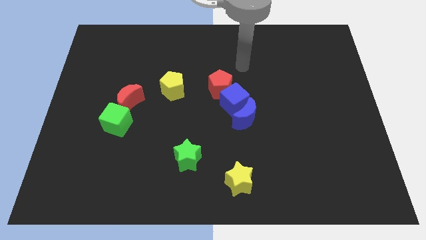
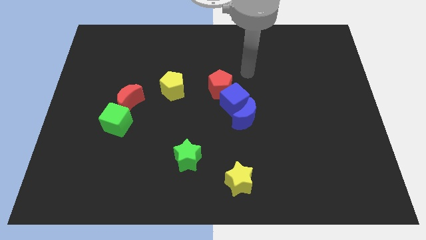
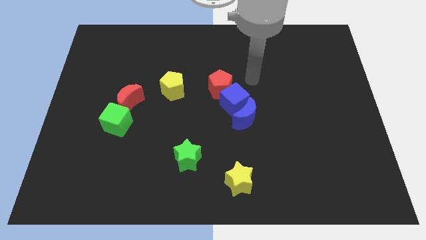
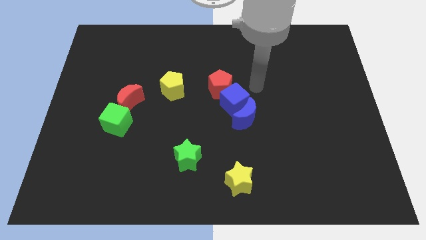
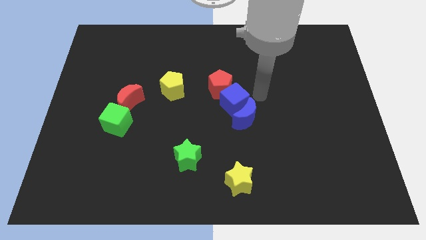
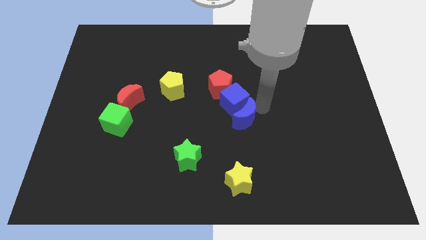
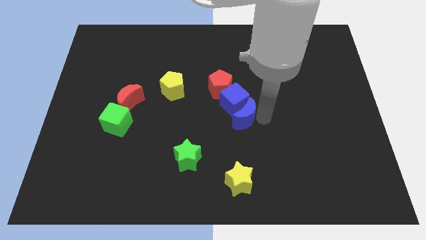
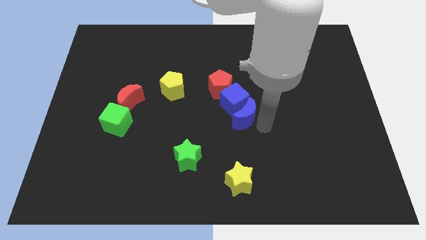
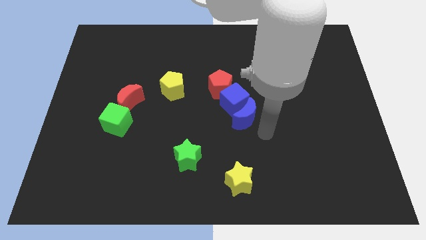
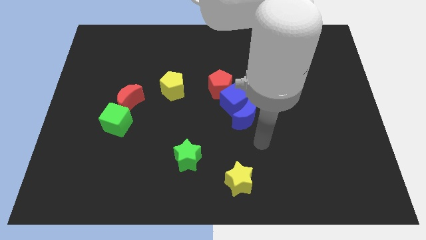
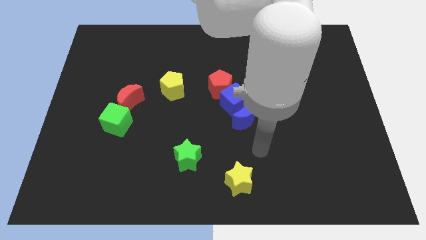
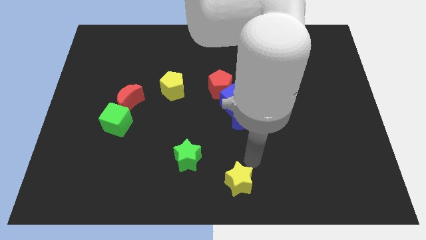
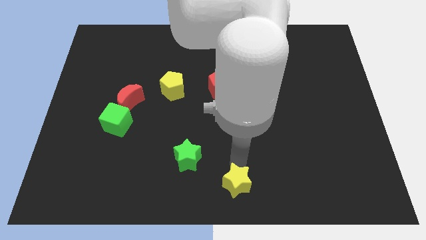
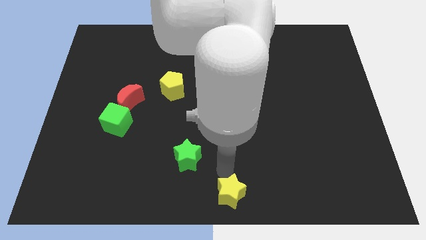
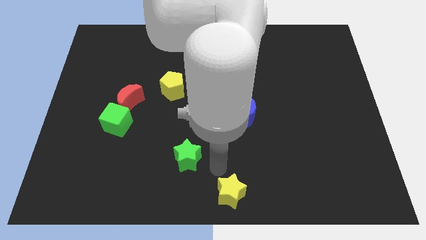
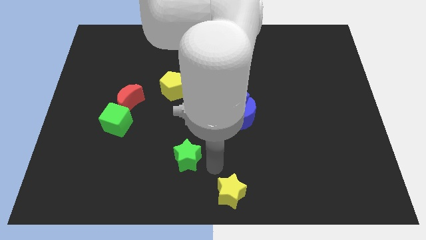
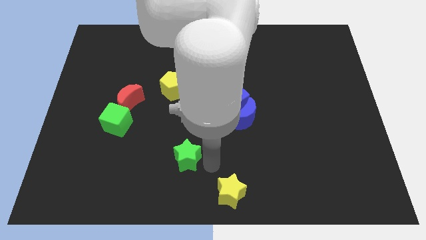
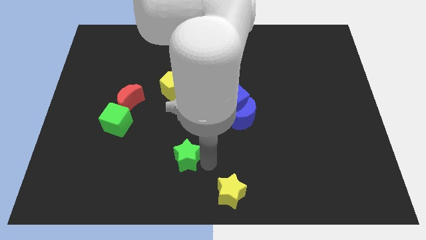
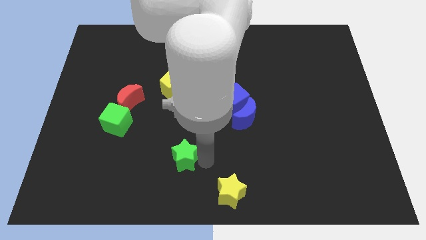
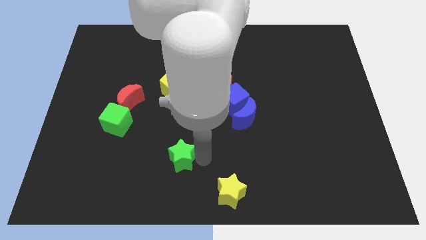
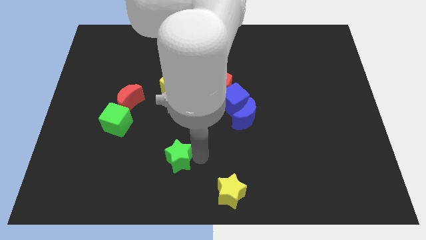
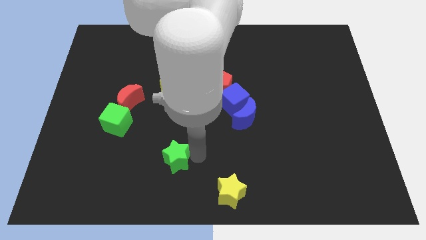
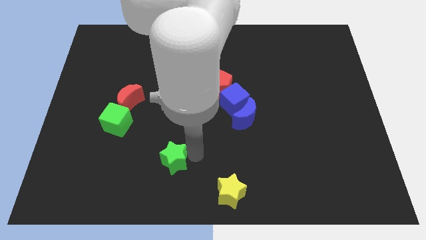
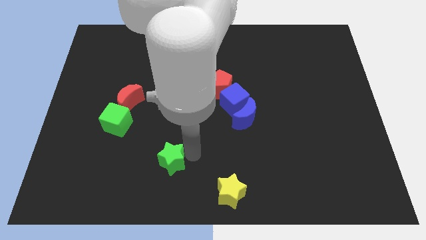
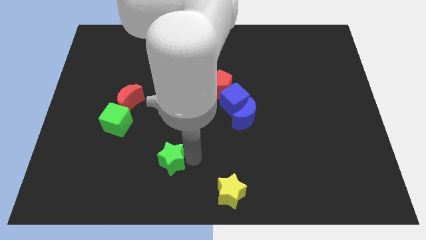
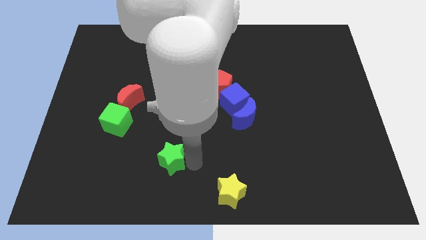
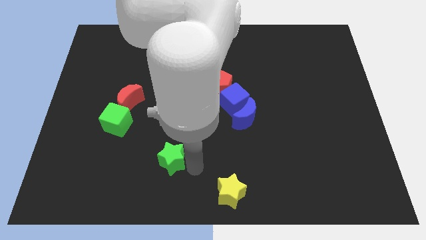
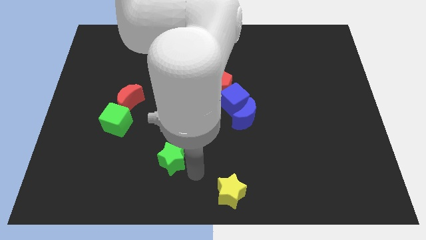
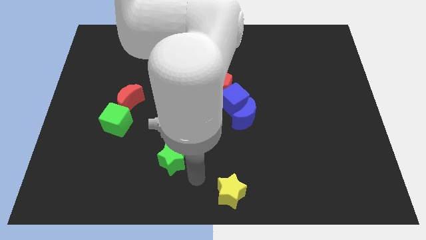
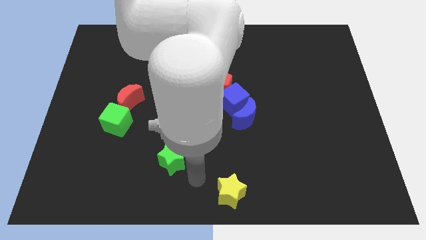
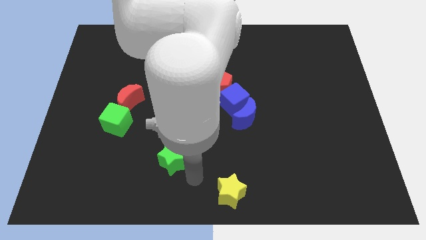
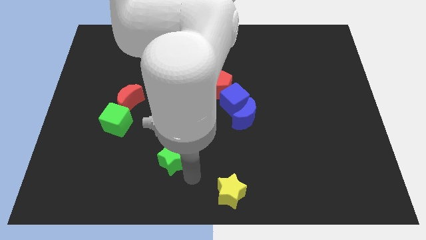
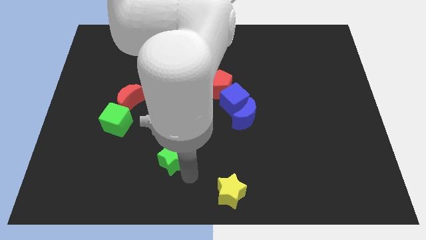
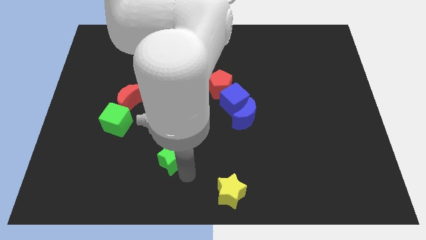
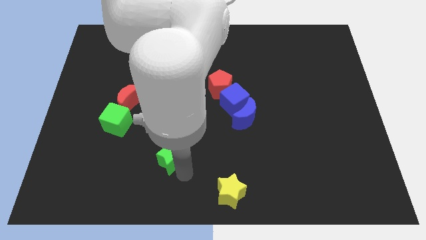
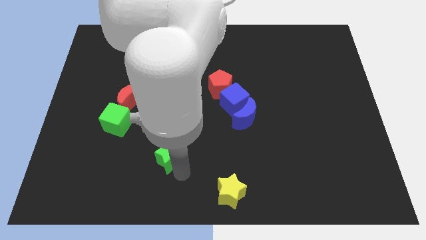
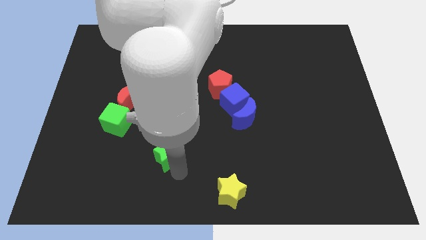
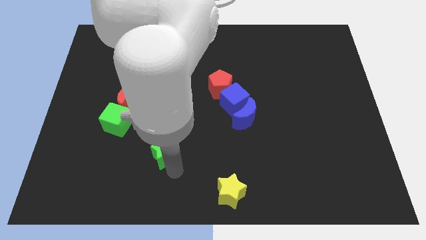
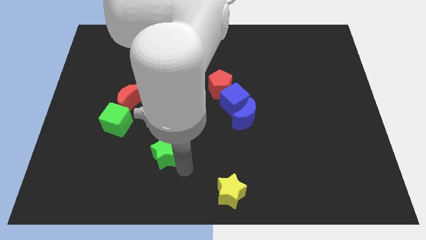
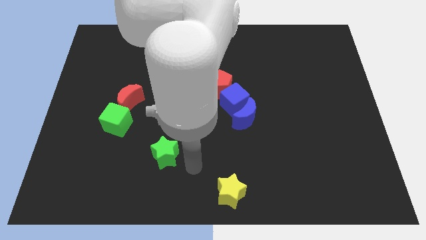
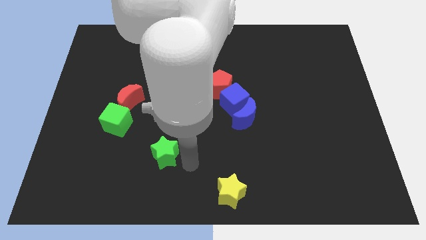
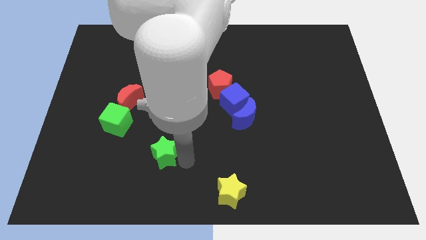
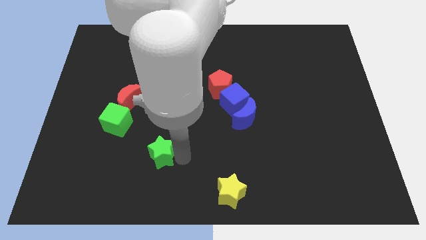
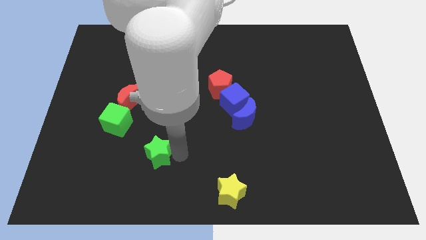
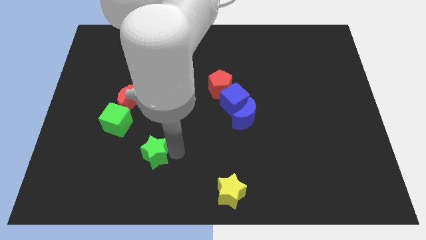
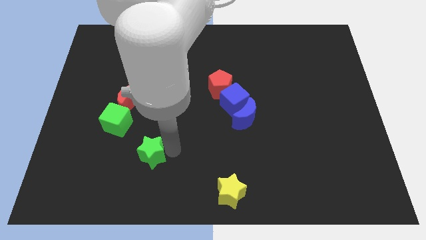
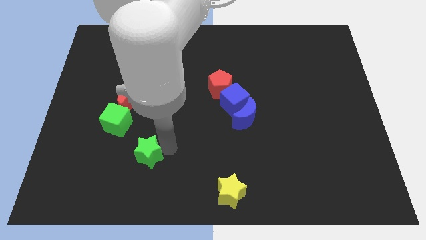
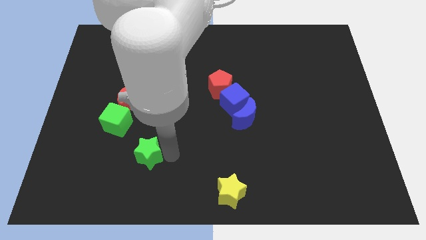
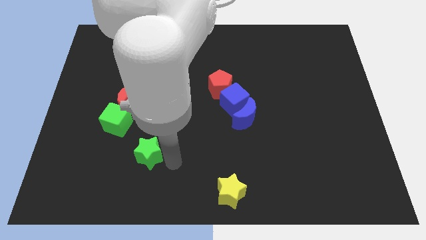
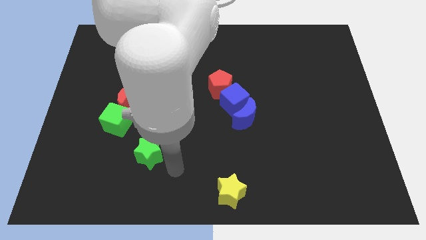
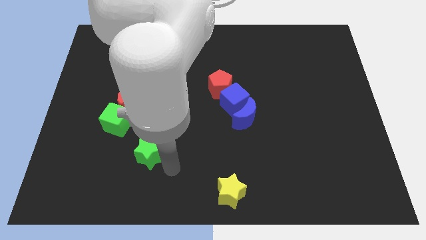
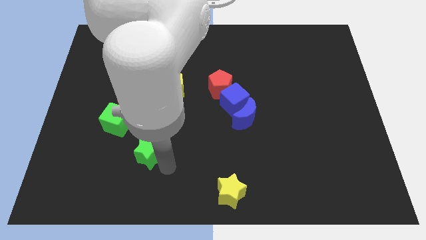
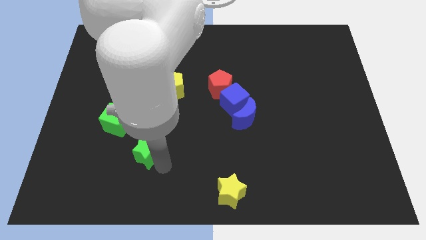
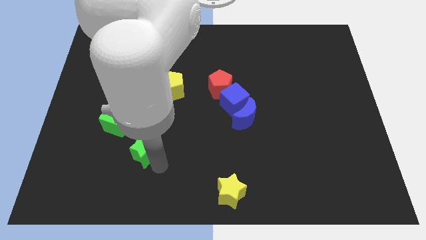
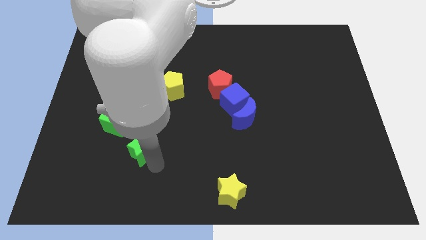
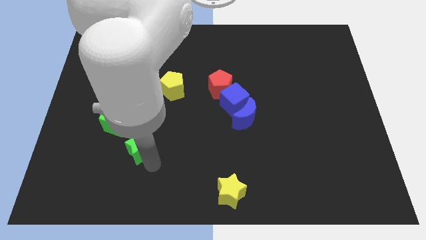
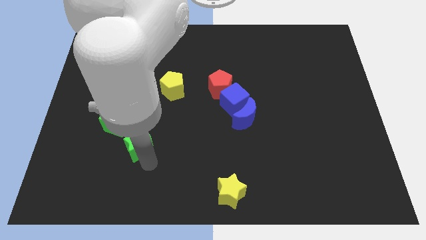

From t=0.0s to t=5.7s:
move the green star to the bottom side of the red moon

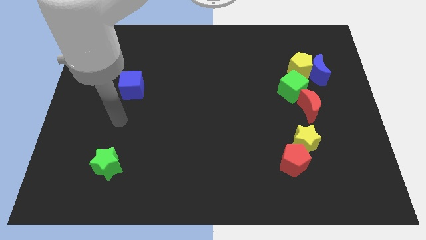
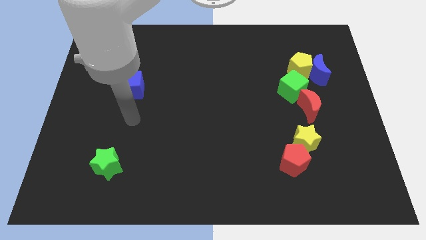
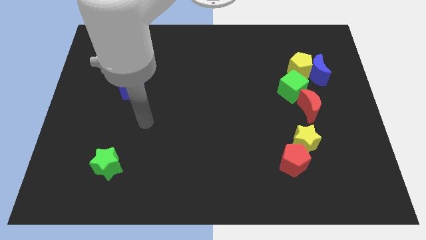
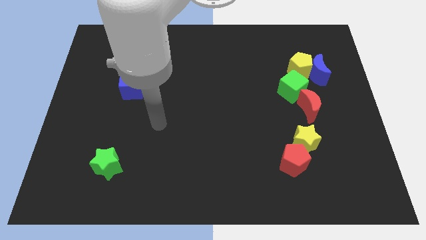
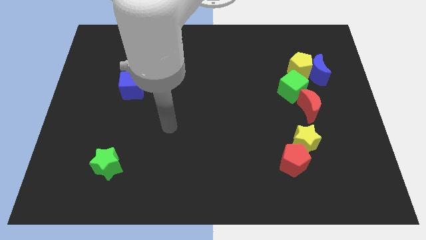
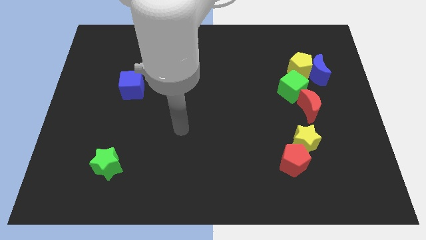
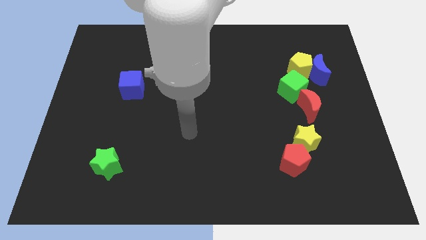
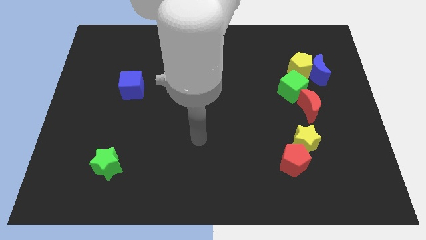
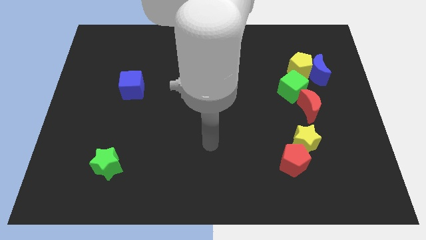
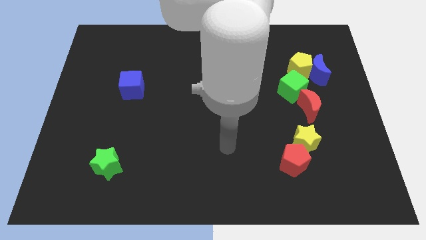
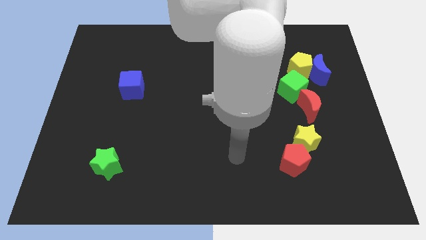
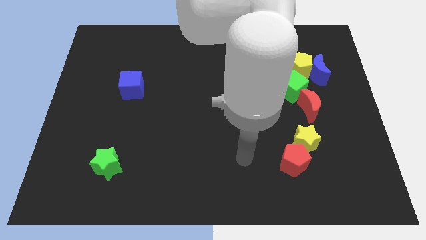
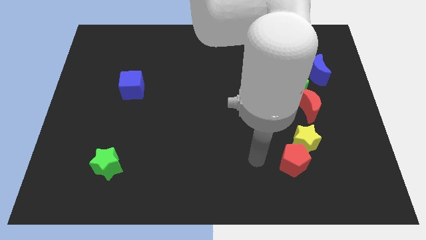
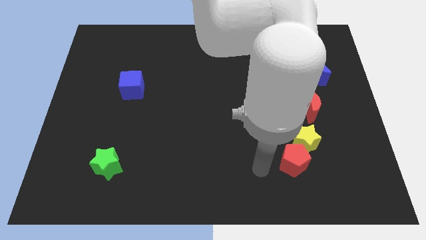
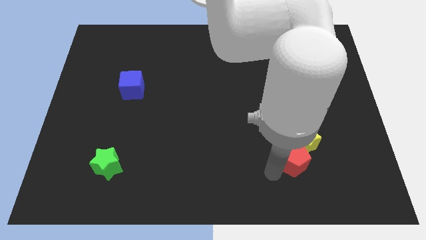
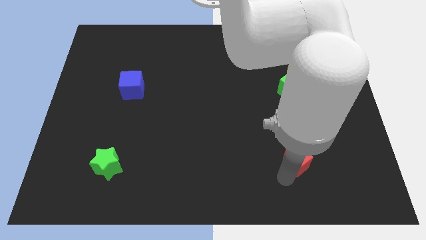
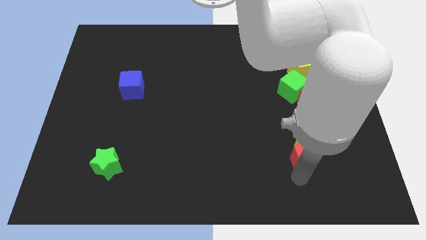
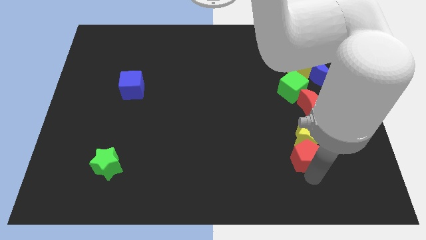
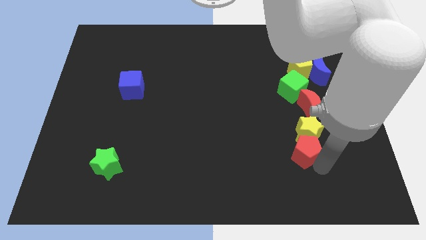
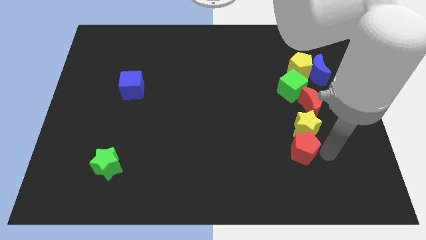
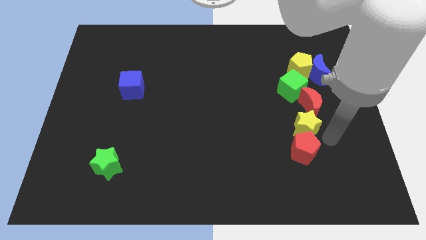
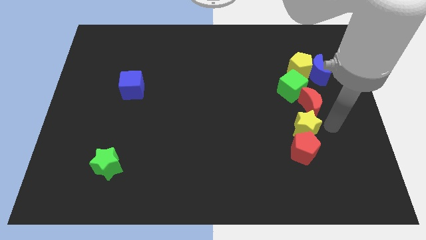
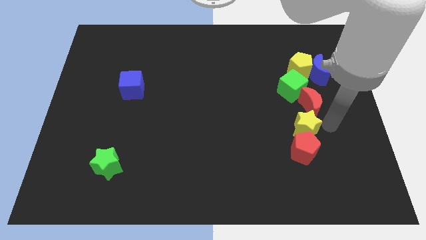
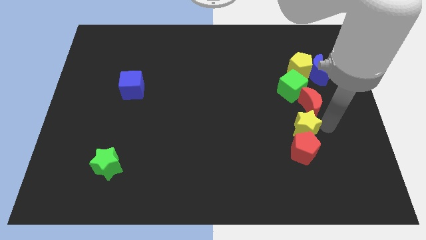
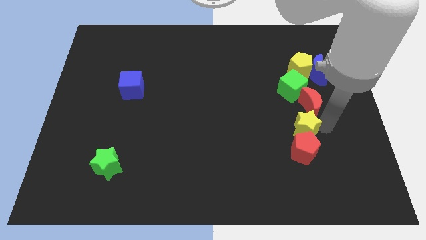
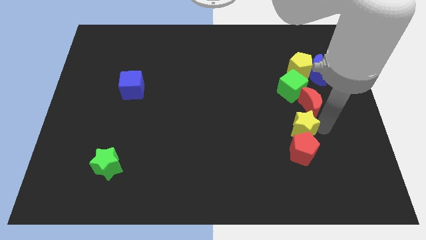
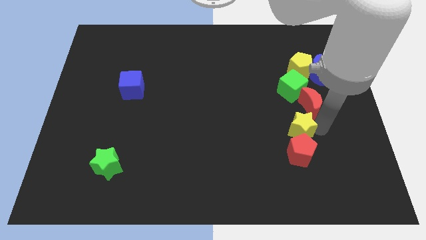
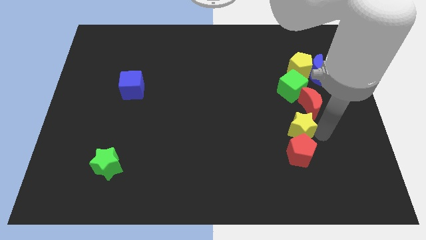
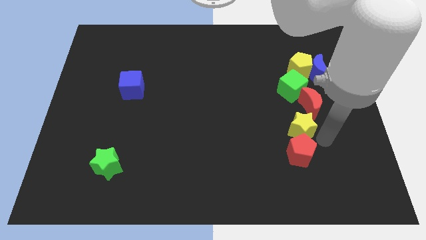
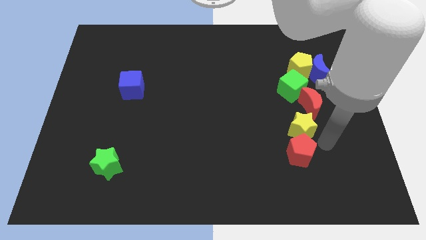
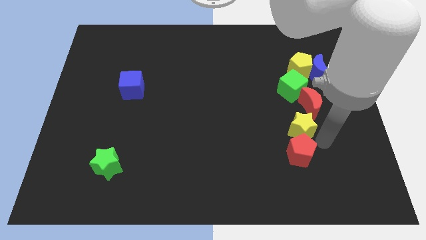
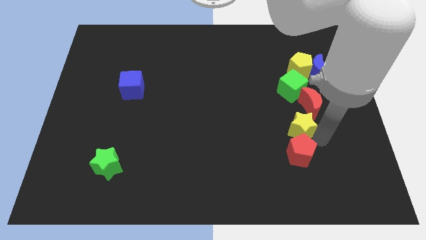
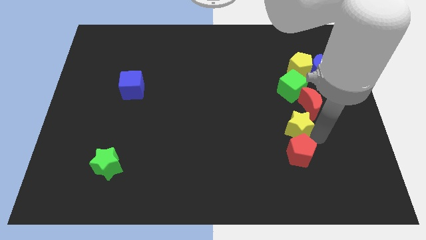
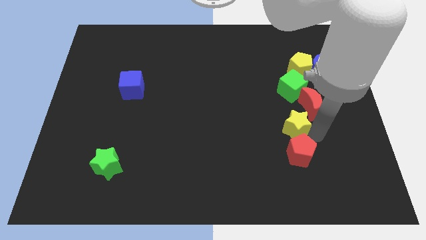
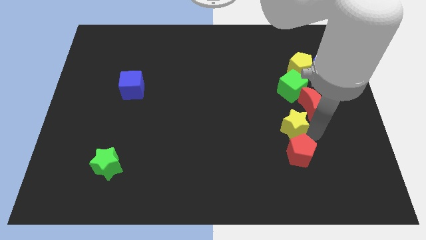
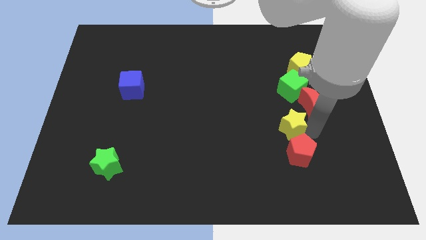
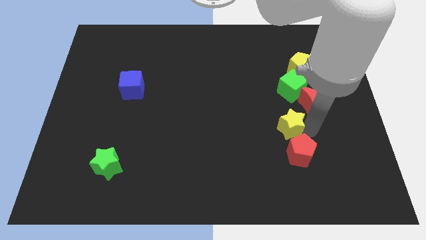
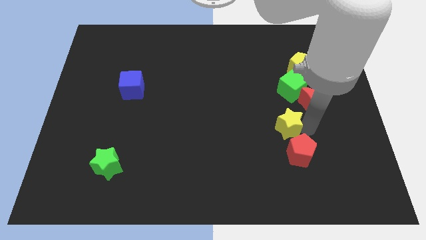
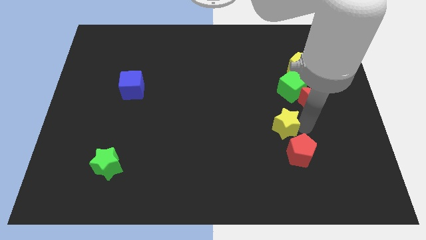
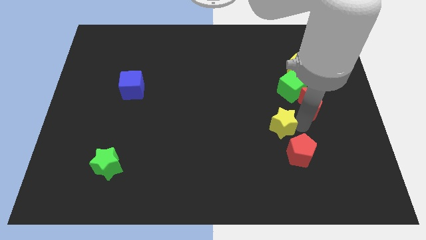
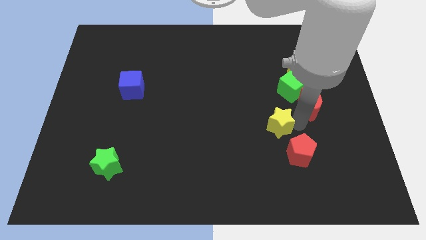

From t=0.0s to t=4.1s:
push the yellow star diagonally down and to the left of the green cube
